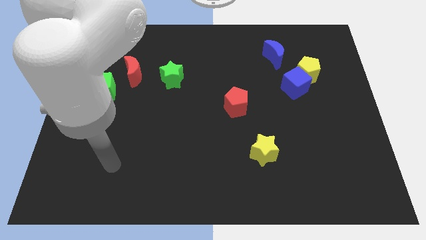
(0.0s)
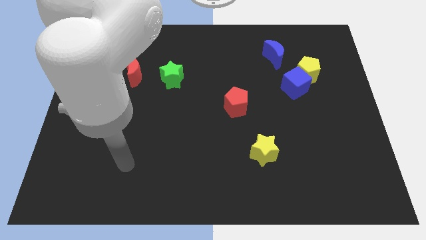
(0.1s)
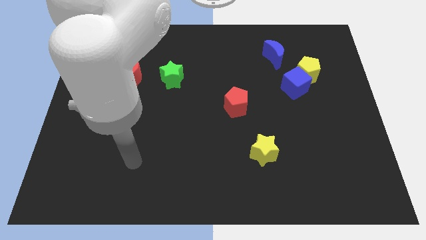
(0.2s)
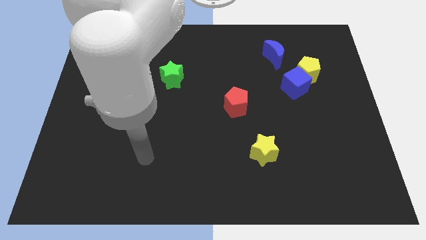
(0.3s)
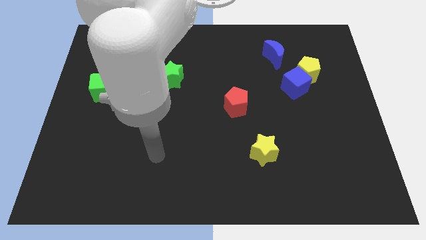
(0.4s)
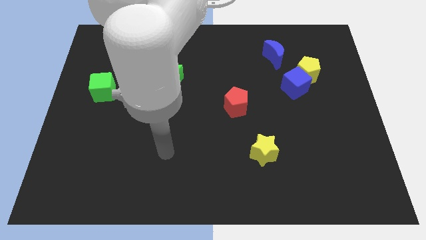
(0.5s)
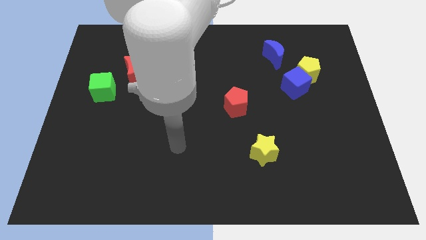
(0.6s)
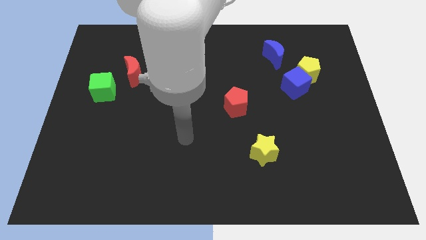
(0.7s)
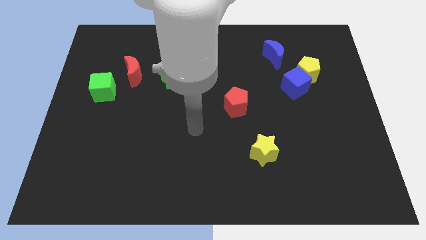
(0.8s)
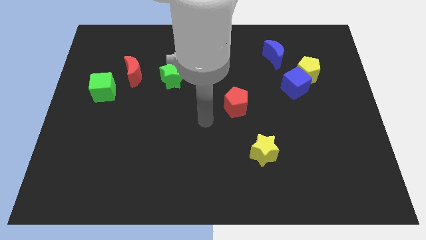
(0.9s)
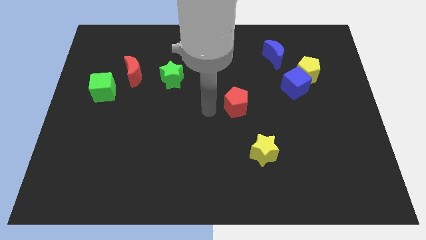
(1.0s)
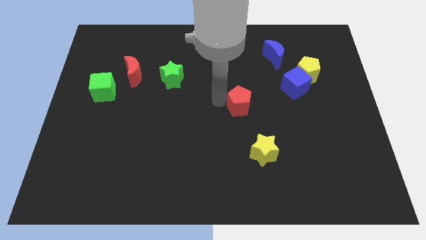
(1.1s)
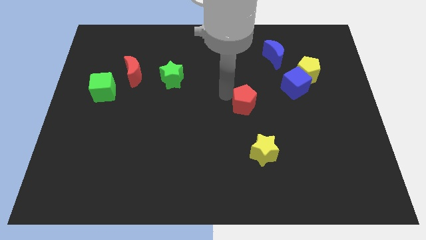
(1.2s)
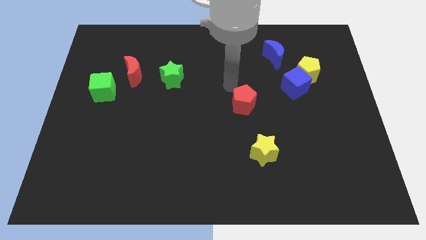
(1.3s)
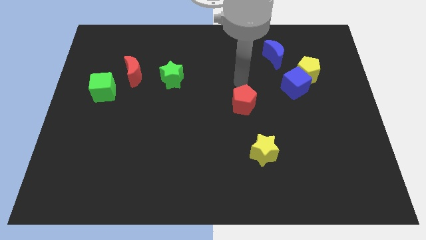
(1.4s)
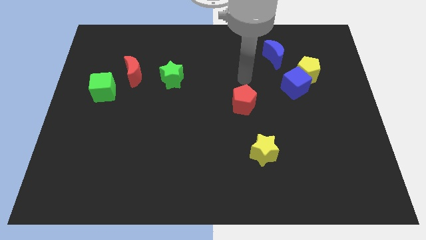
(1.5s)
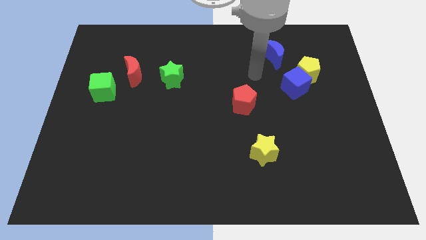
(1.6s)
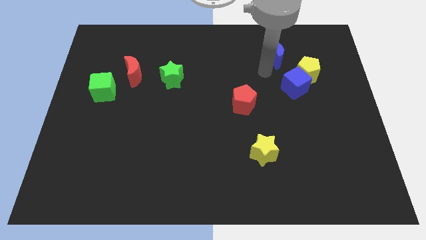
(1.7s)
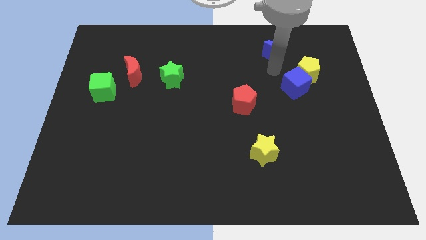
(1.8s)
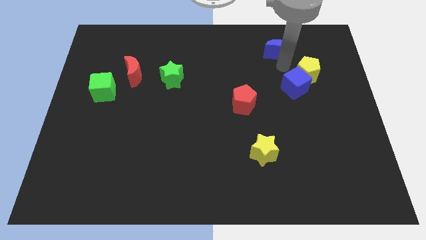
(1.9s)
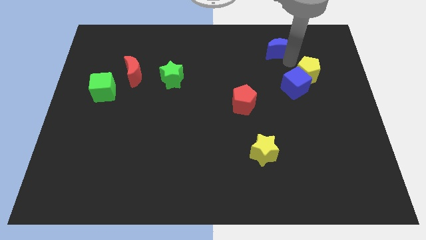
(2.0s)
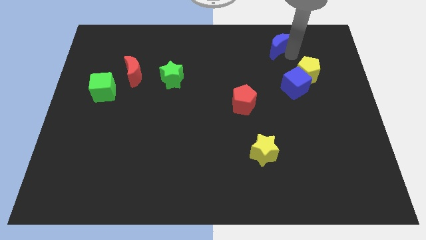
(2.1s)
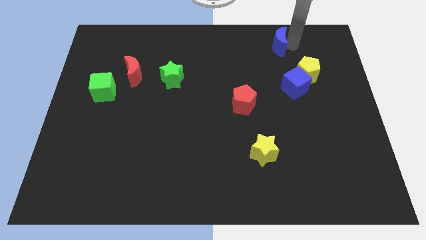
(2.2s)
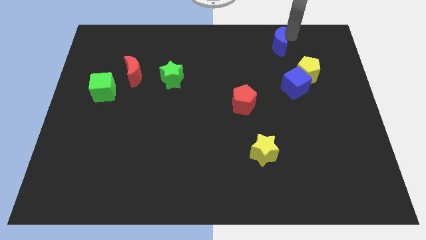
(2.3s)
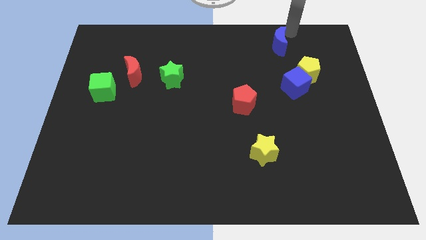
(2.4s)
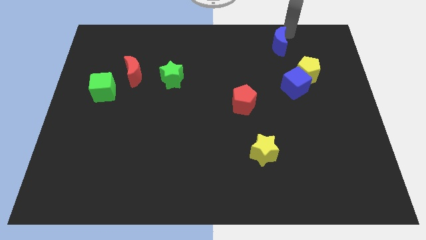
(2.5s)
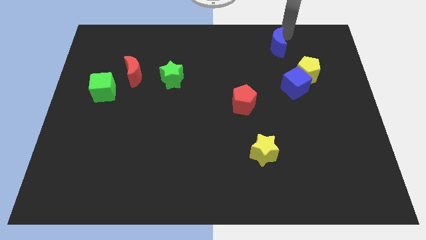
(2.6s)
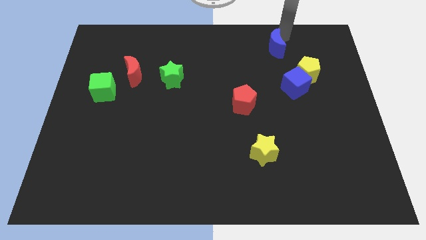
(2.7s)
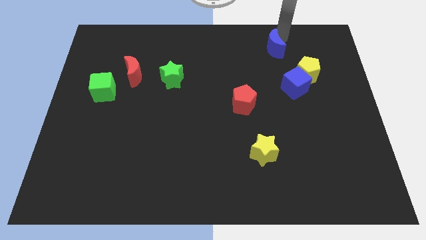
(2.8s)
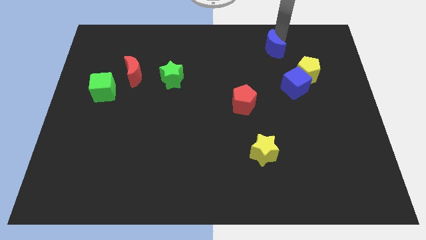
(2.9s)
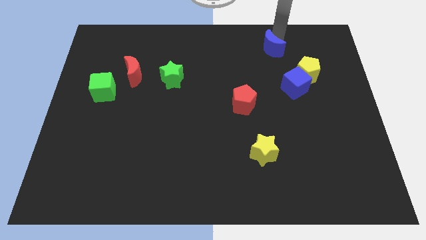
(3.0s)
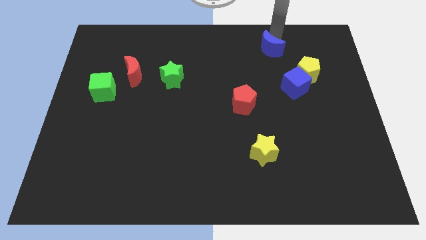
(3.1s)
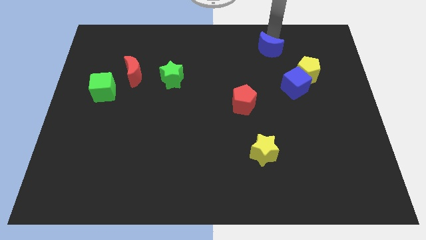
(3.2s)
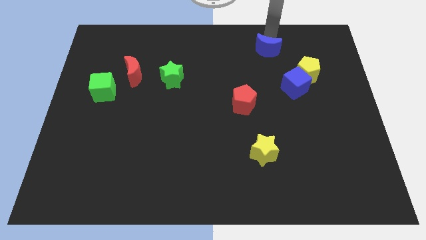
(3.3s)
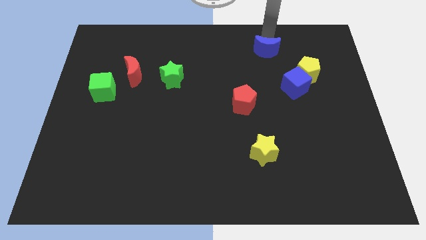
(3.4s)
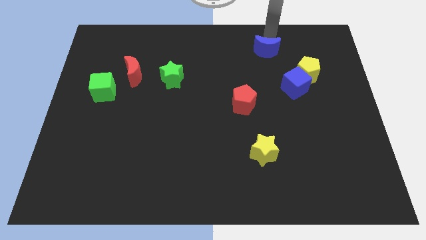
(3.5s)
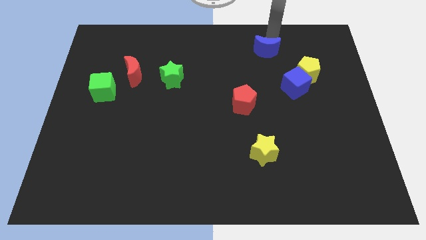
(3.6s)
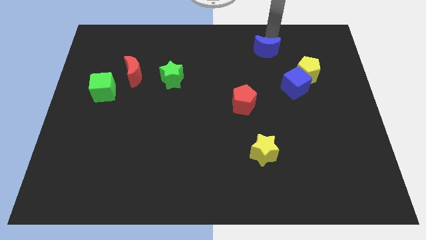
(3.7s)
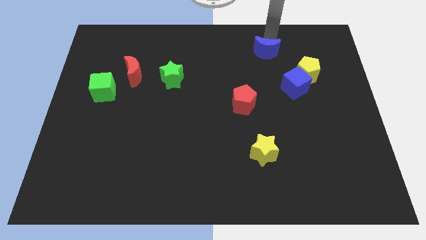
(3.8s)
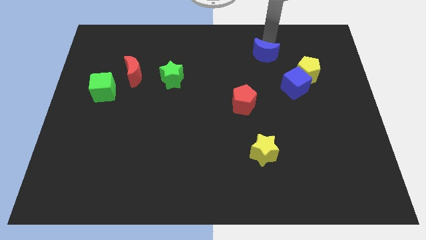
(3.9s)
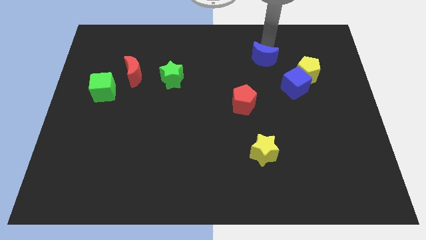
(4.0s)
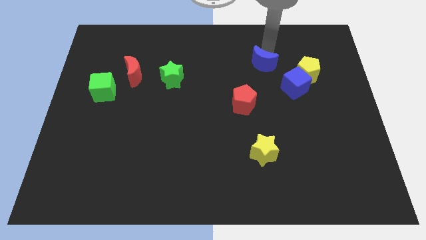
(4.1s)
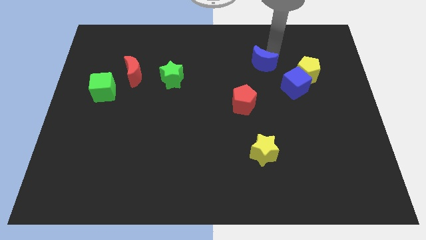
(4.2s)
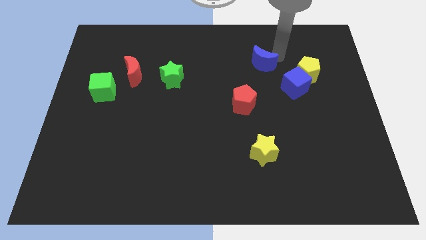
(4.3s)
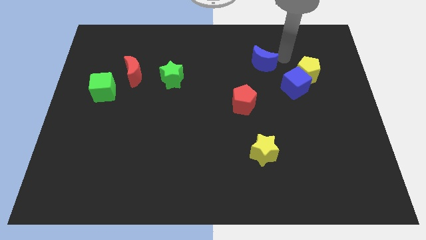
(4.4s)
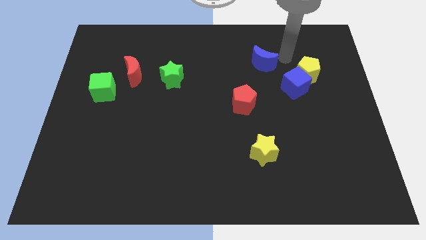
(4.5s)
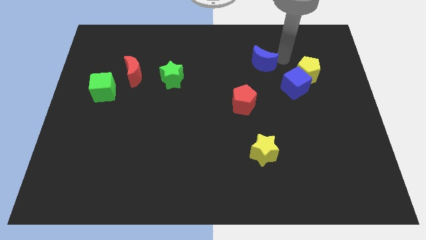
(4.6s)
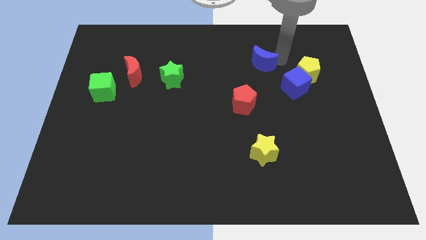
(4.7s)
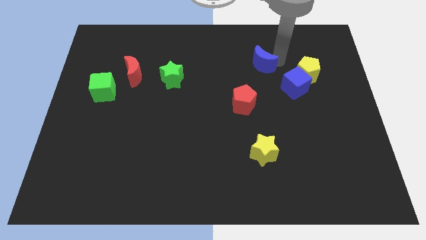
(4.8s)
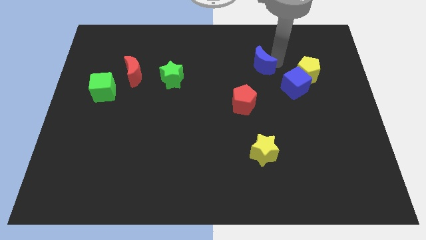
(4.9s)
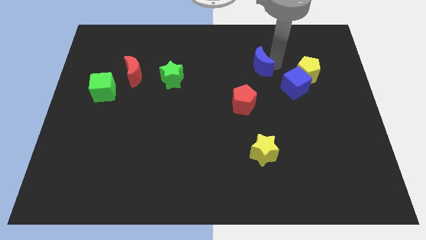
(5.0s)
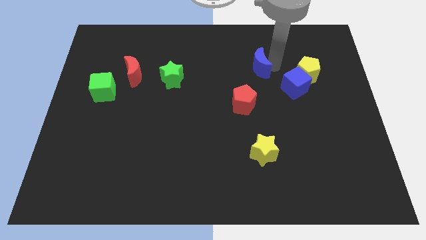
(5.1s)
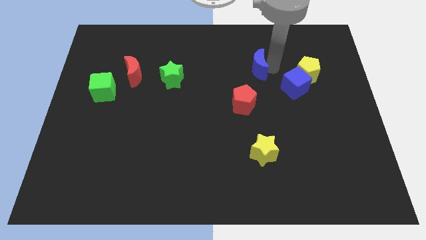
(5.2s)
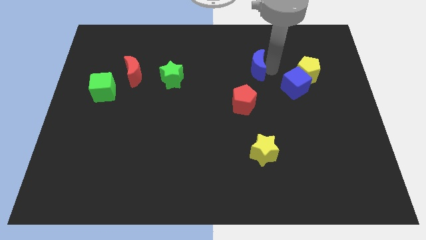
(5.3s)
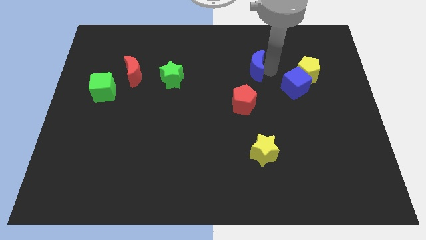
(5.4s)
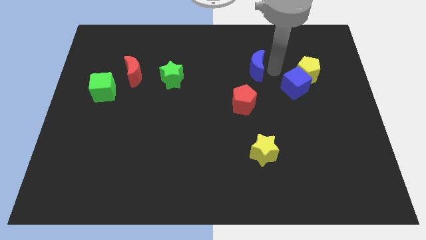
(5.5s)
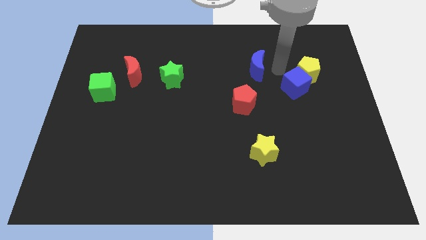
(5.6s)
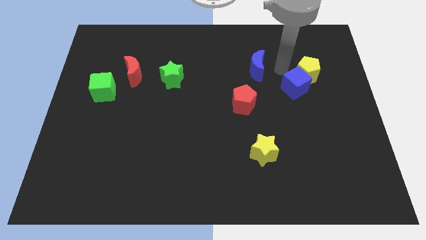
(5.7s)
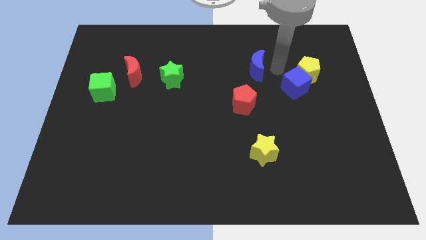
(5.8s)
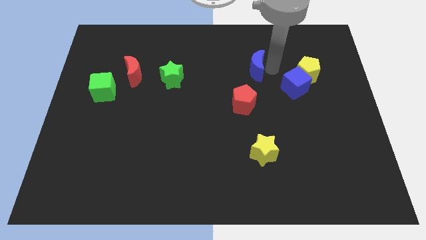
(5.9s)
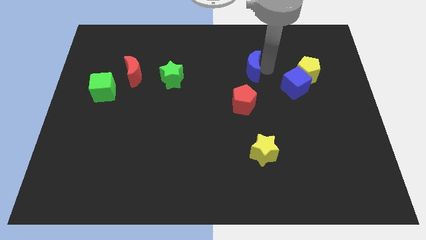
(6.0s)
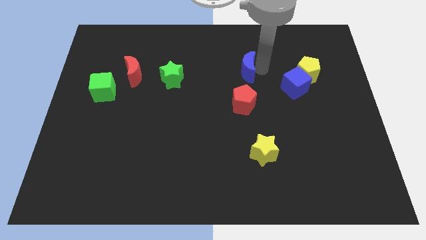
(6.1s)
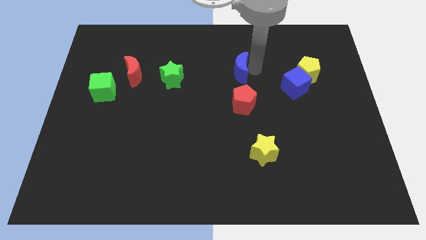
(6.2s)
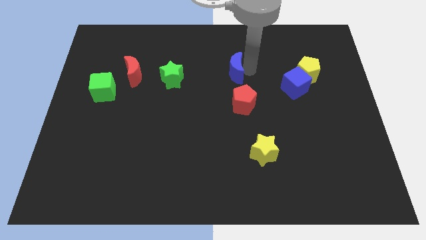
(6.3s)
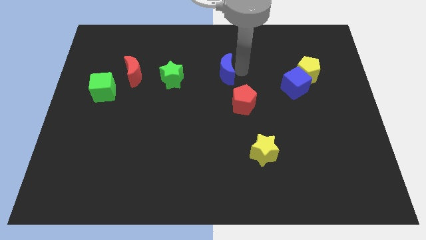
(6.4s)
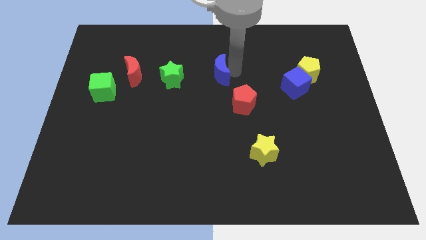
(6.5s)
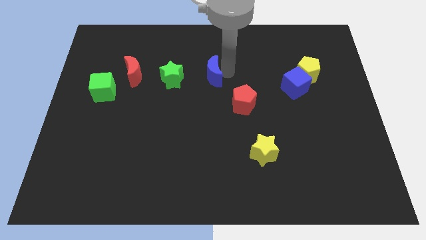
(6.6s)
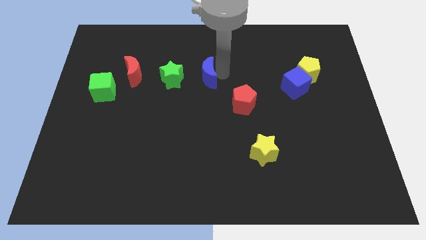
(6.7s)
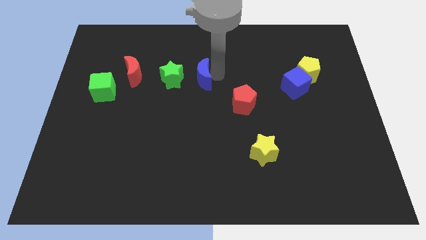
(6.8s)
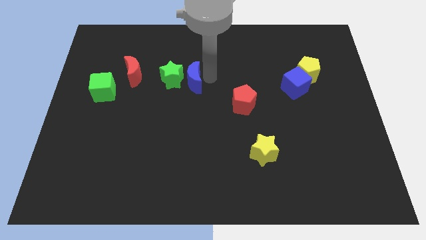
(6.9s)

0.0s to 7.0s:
move the blue moon to the green star
